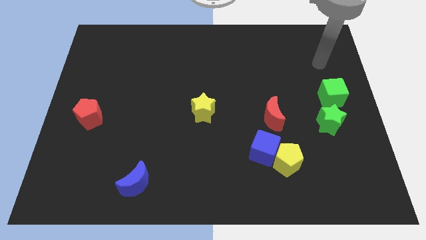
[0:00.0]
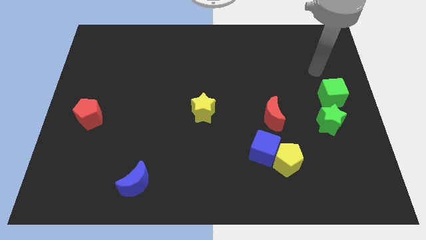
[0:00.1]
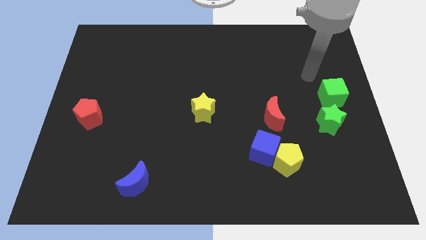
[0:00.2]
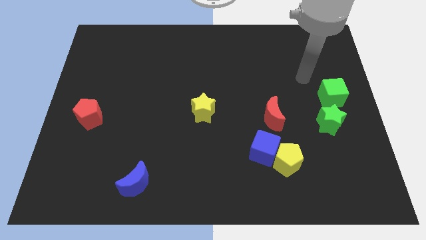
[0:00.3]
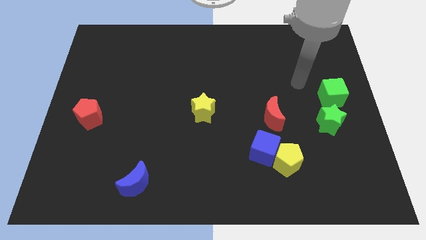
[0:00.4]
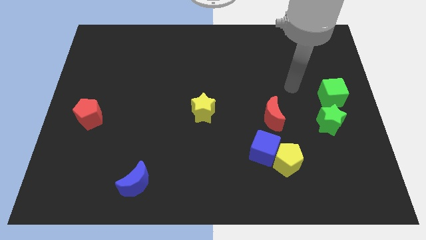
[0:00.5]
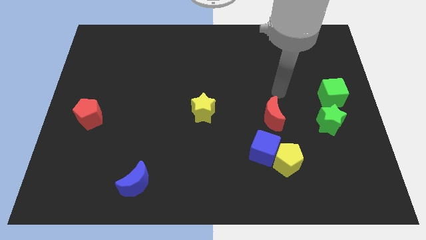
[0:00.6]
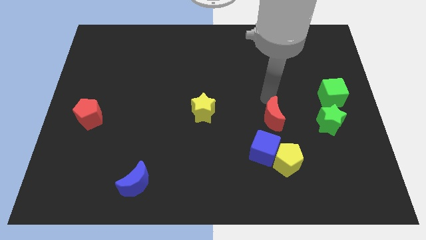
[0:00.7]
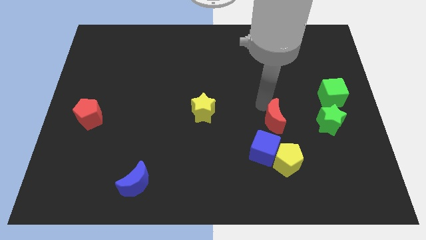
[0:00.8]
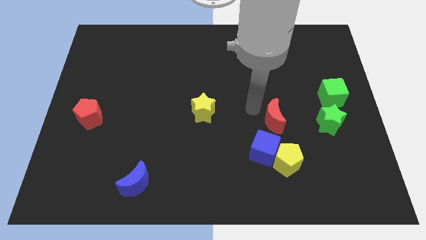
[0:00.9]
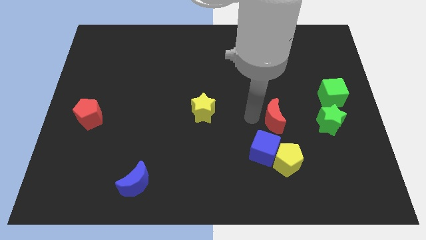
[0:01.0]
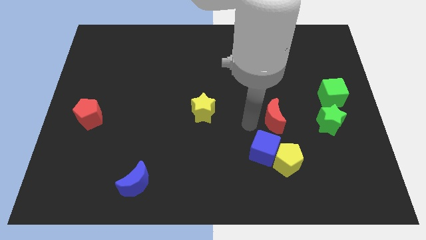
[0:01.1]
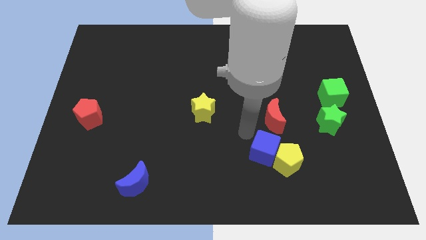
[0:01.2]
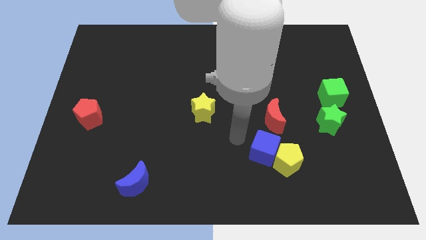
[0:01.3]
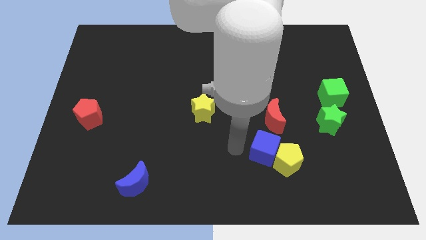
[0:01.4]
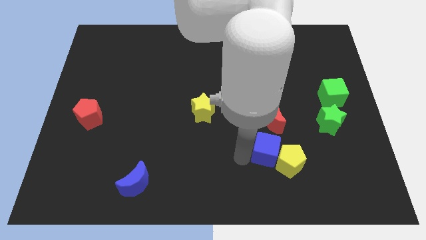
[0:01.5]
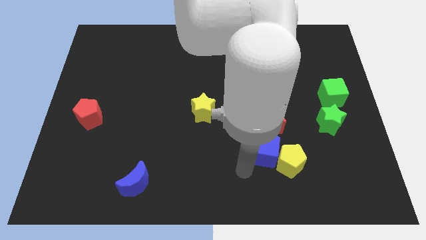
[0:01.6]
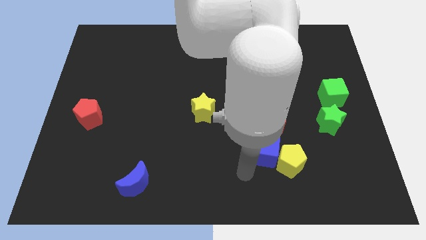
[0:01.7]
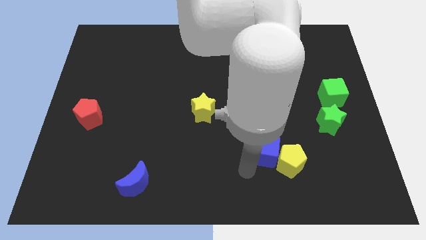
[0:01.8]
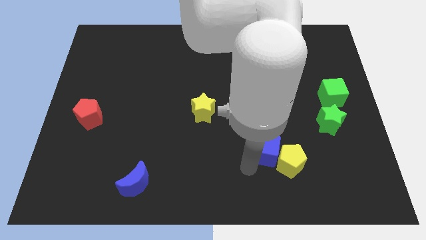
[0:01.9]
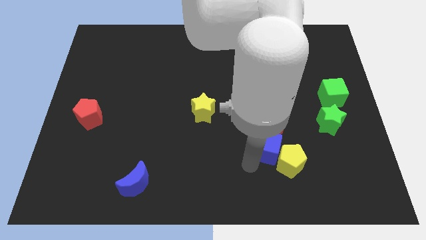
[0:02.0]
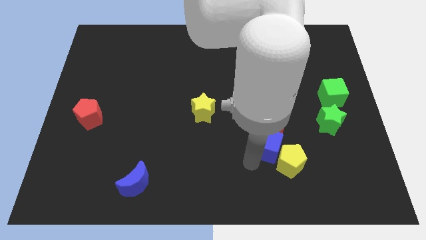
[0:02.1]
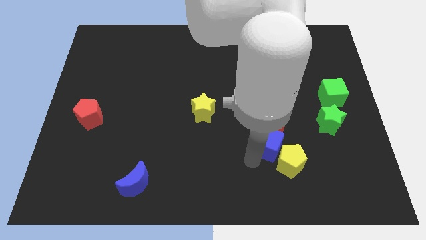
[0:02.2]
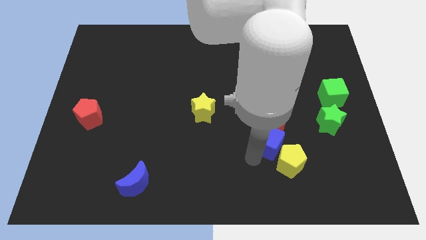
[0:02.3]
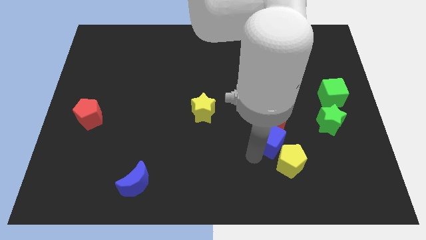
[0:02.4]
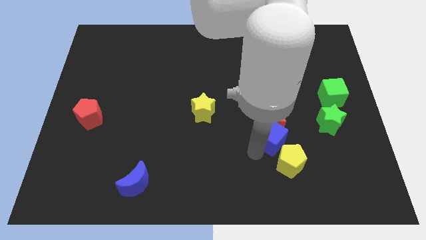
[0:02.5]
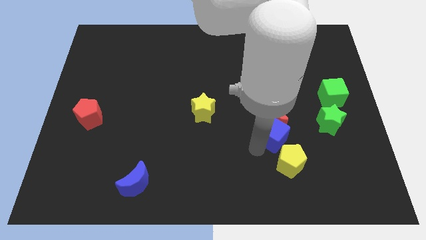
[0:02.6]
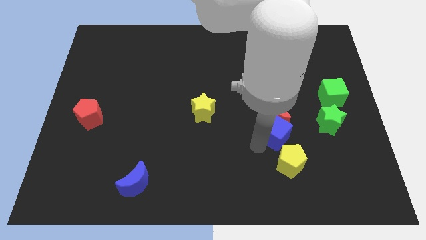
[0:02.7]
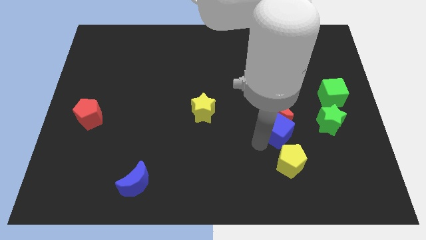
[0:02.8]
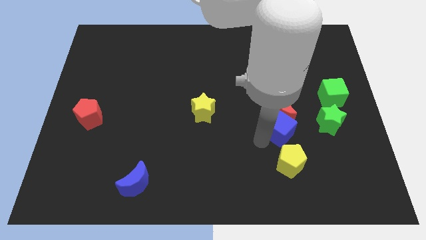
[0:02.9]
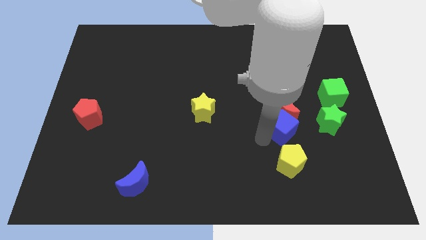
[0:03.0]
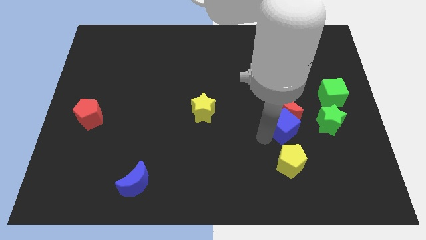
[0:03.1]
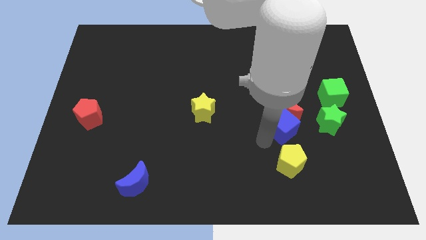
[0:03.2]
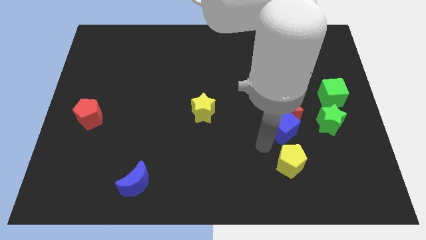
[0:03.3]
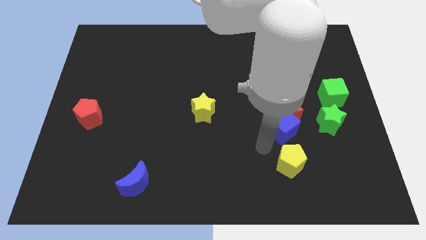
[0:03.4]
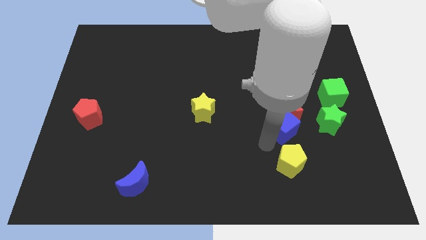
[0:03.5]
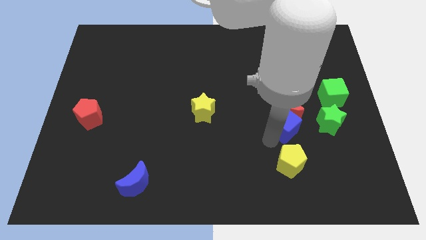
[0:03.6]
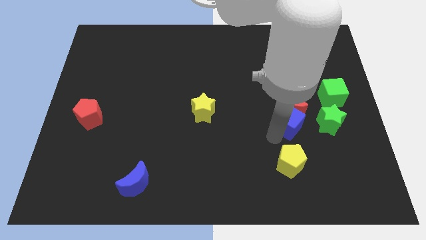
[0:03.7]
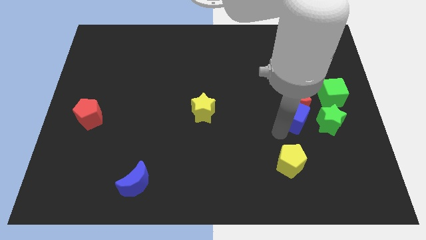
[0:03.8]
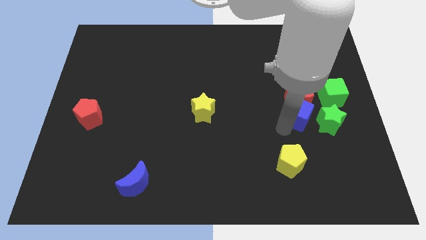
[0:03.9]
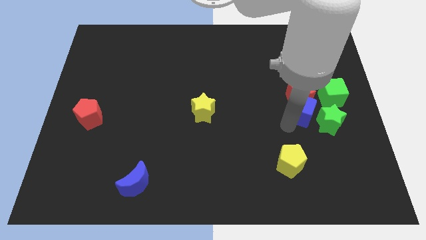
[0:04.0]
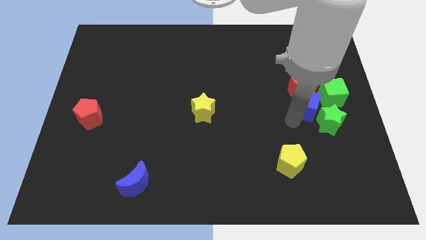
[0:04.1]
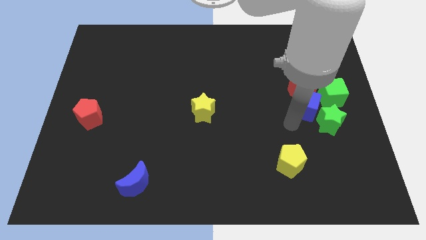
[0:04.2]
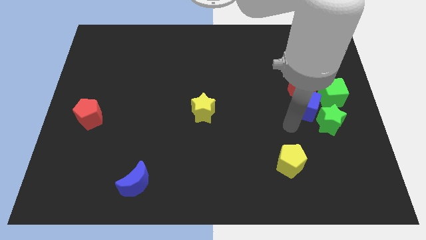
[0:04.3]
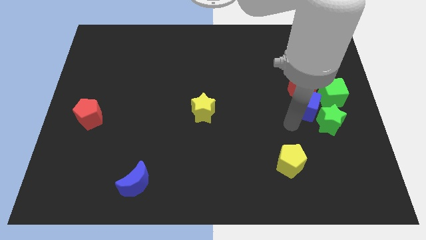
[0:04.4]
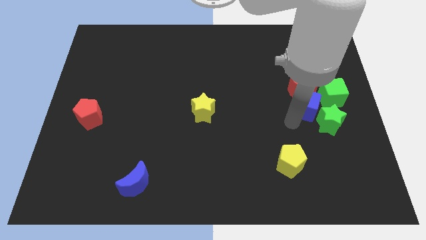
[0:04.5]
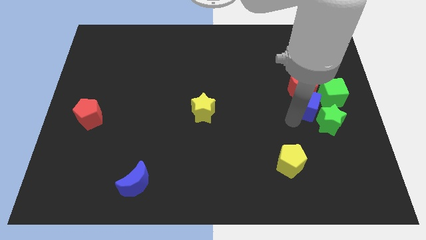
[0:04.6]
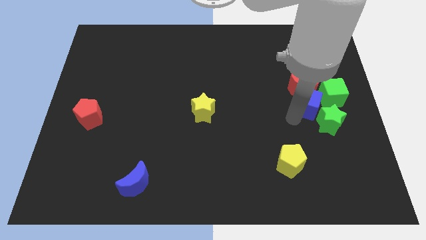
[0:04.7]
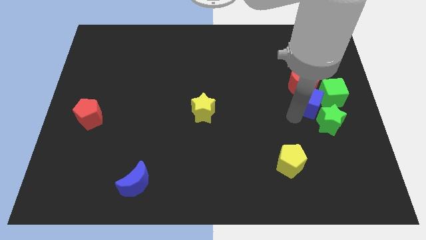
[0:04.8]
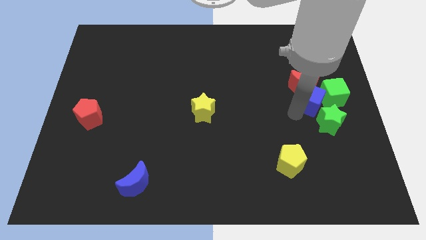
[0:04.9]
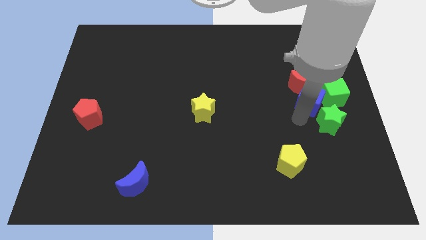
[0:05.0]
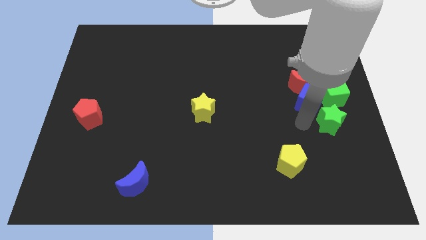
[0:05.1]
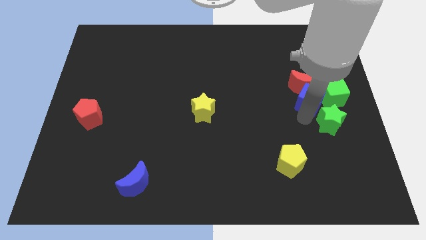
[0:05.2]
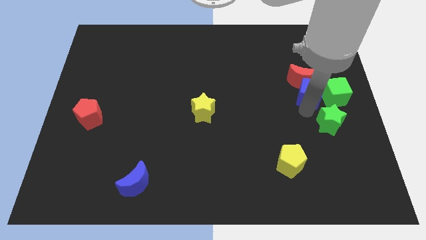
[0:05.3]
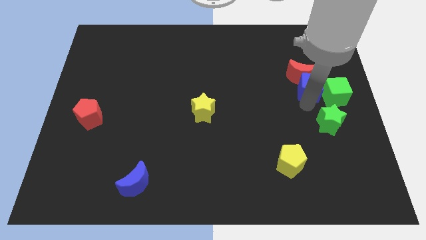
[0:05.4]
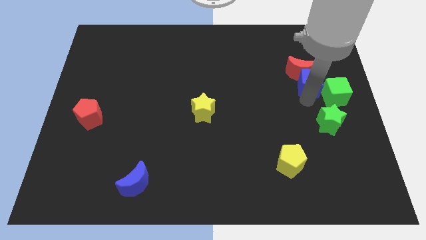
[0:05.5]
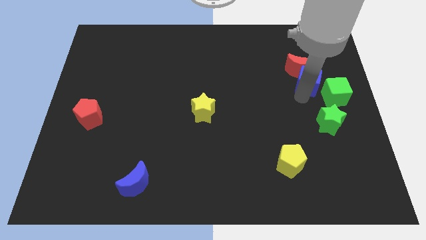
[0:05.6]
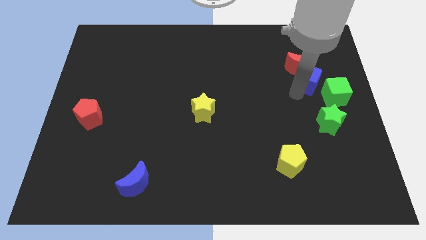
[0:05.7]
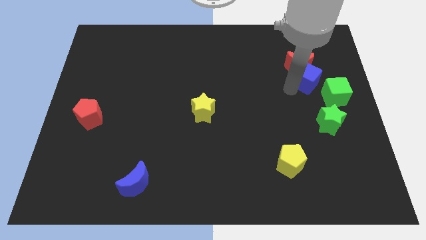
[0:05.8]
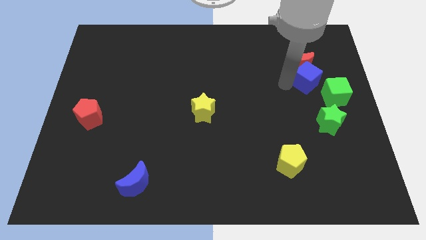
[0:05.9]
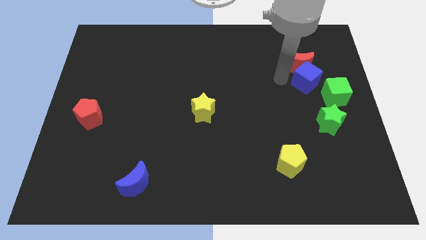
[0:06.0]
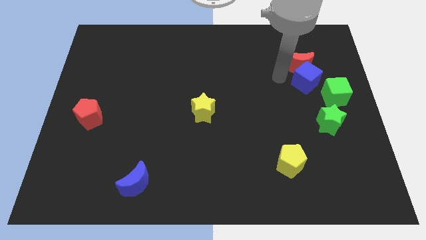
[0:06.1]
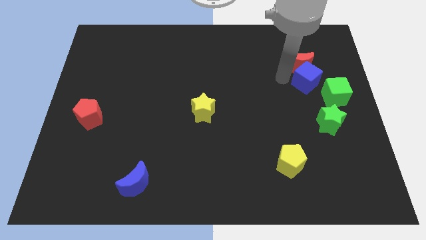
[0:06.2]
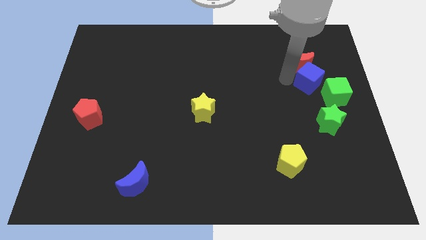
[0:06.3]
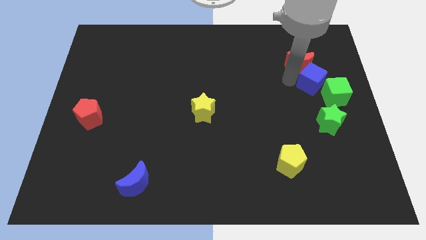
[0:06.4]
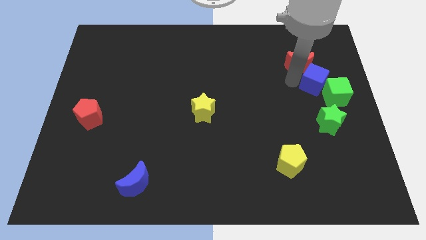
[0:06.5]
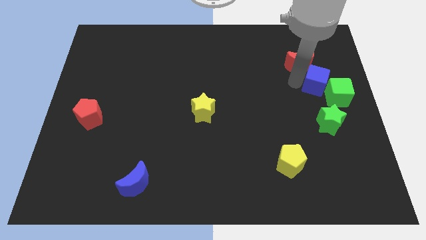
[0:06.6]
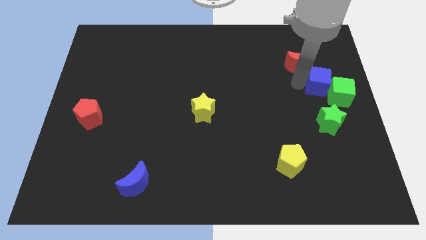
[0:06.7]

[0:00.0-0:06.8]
move the blue cube to the right side of the board
